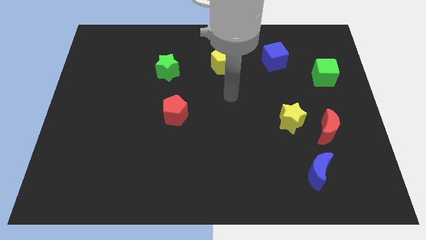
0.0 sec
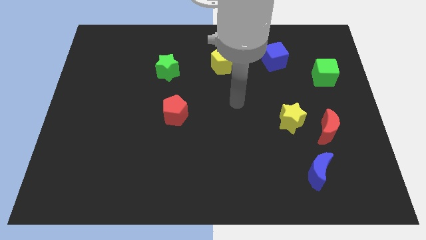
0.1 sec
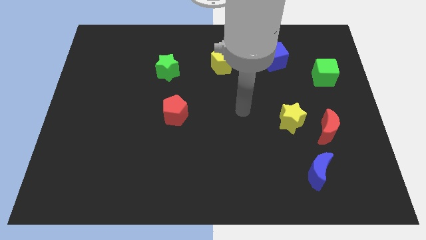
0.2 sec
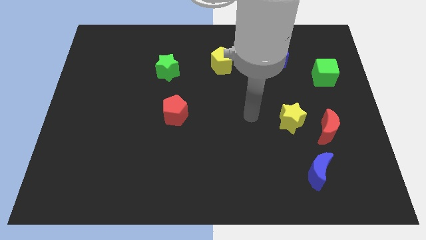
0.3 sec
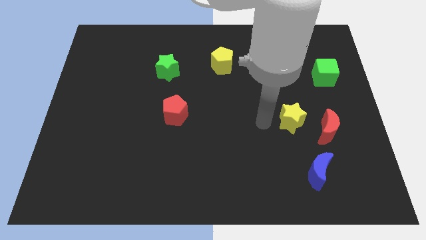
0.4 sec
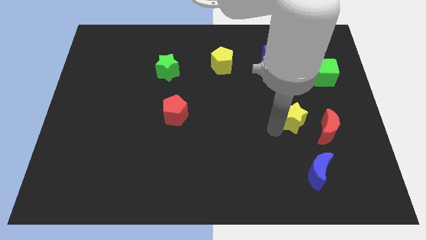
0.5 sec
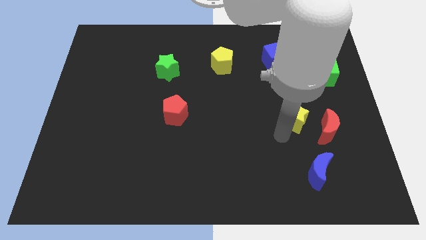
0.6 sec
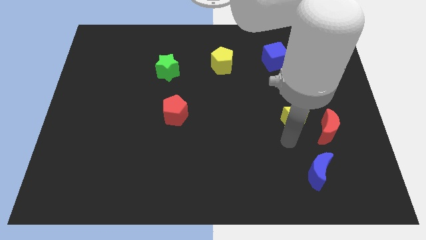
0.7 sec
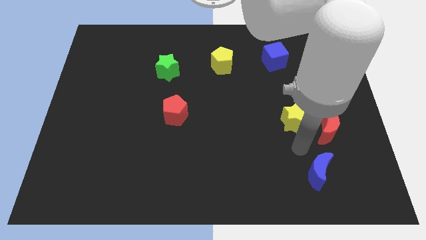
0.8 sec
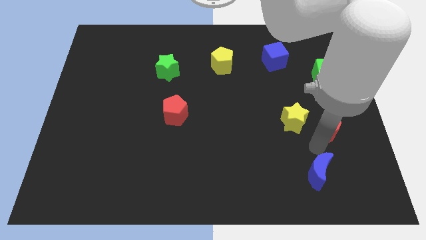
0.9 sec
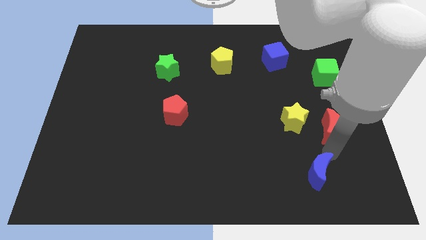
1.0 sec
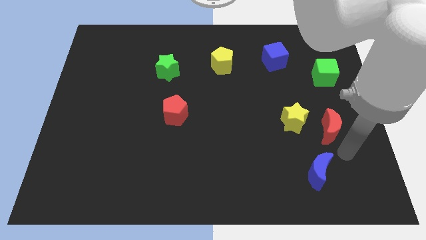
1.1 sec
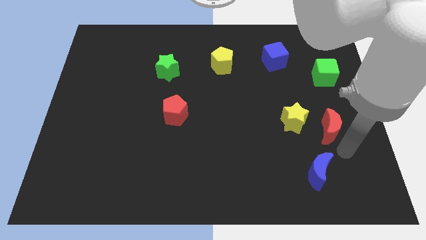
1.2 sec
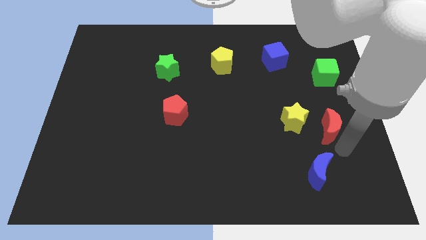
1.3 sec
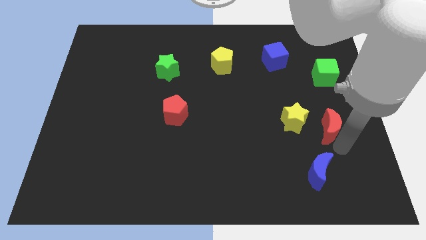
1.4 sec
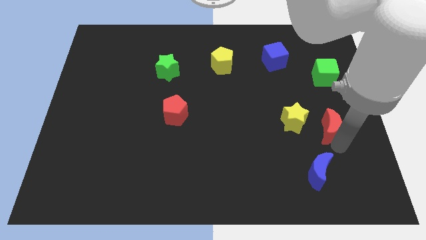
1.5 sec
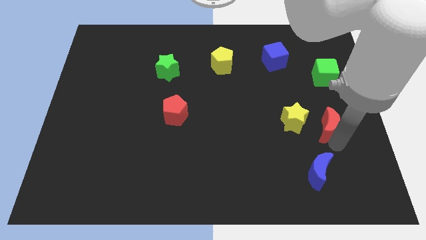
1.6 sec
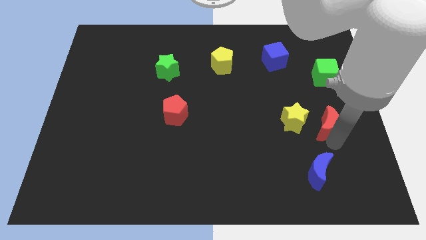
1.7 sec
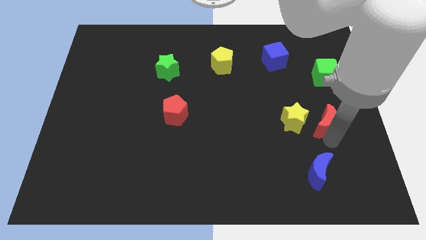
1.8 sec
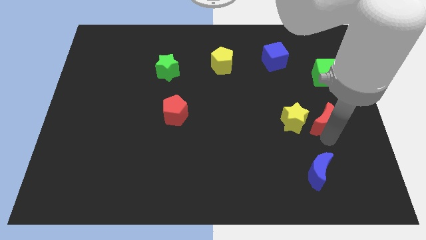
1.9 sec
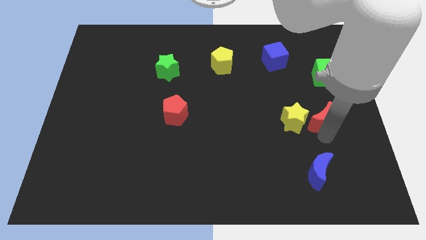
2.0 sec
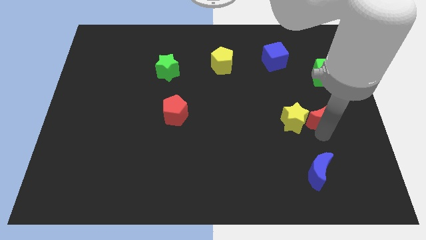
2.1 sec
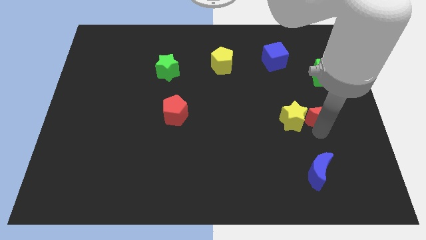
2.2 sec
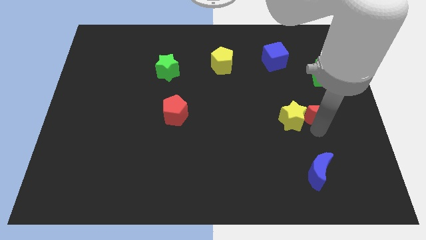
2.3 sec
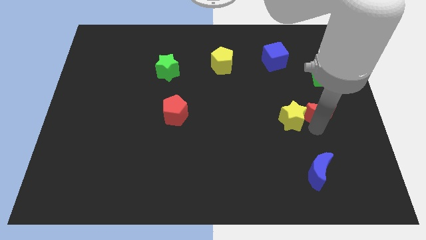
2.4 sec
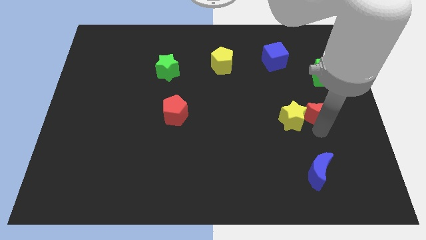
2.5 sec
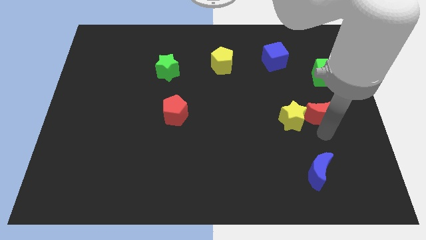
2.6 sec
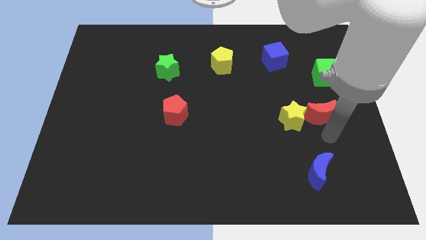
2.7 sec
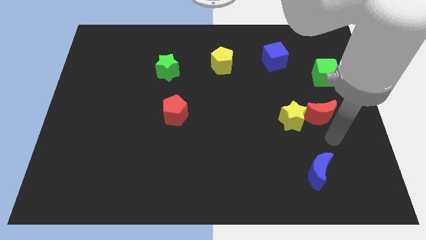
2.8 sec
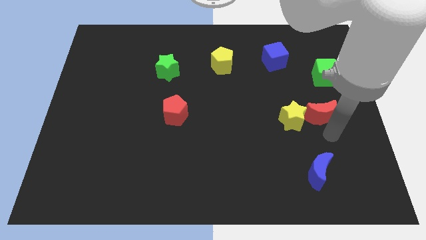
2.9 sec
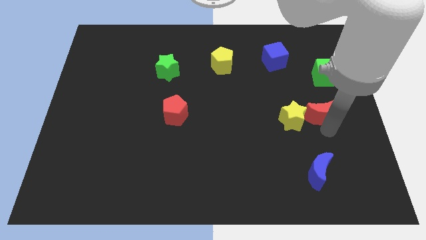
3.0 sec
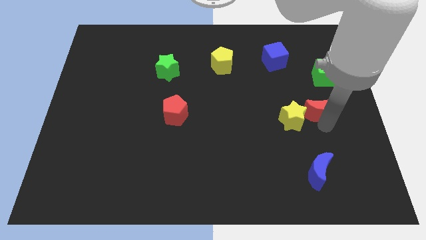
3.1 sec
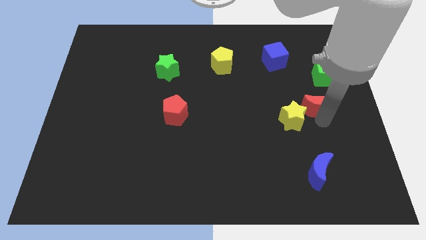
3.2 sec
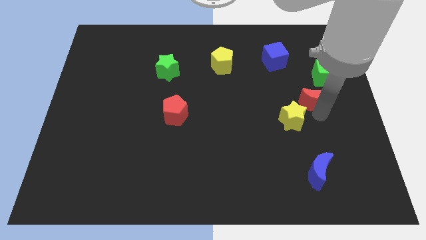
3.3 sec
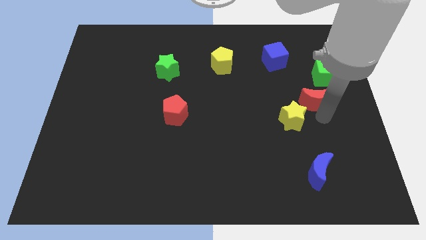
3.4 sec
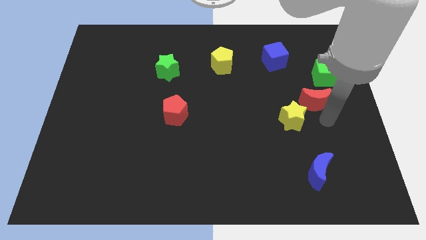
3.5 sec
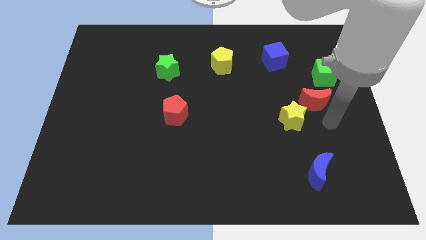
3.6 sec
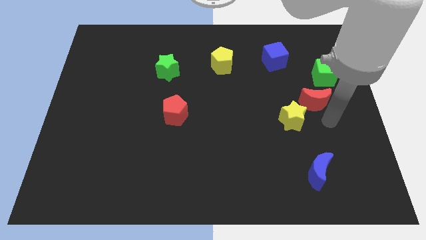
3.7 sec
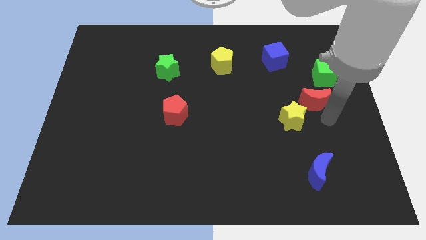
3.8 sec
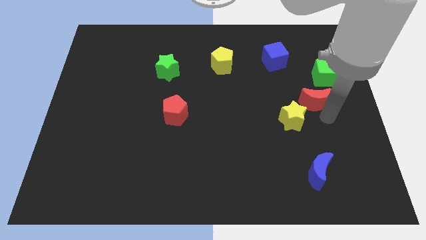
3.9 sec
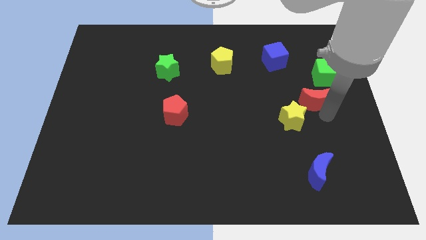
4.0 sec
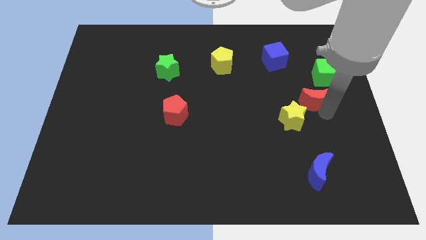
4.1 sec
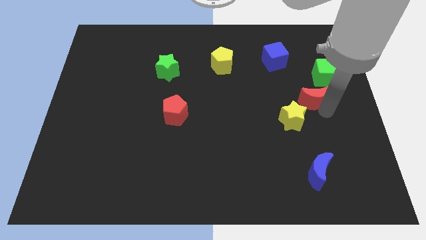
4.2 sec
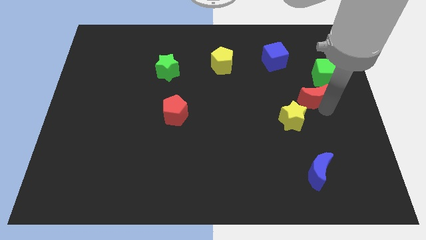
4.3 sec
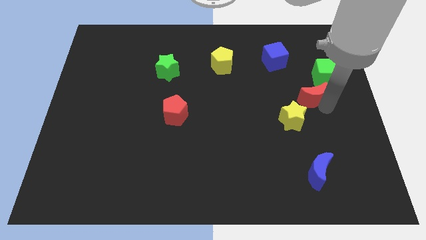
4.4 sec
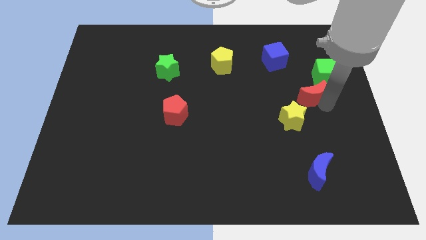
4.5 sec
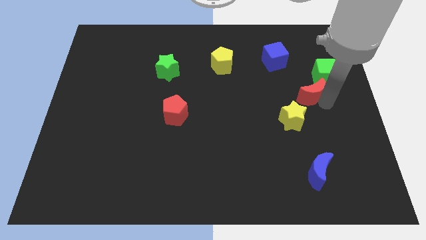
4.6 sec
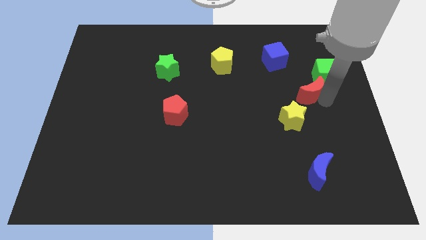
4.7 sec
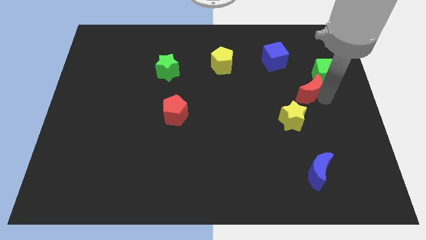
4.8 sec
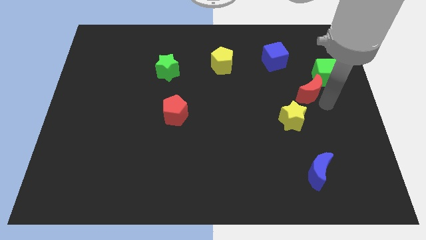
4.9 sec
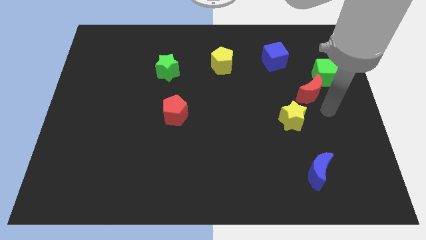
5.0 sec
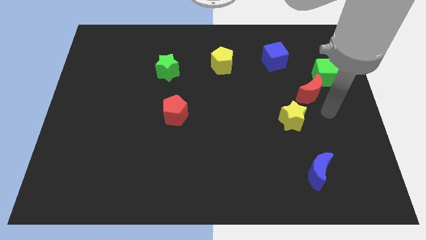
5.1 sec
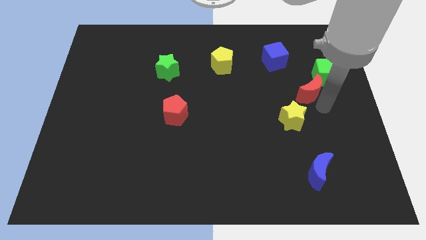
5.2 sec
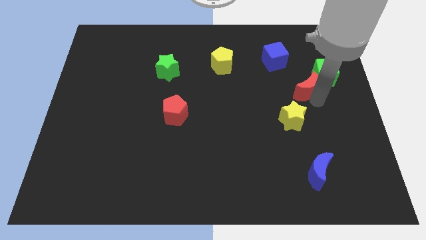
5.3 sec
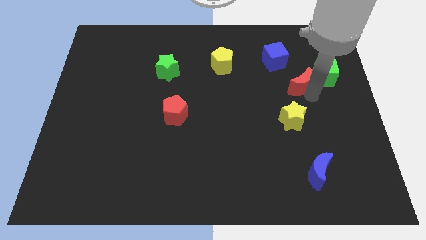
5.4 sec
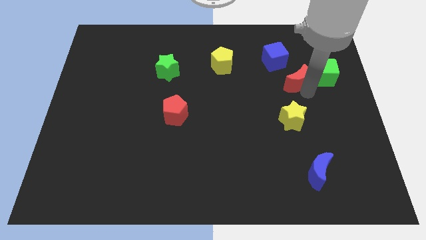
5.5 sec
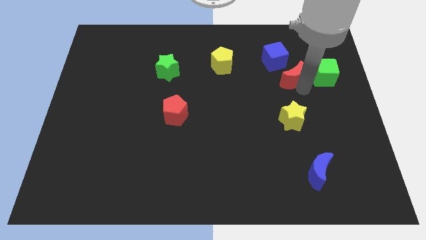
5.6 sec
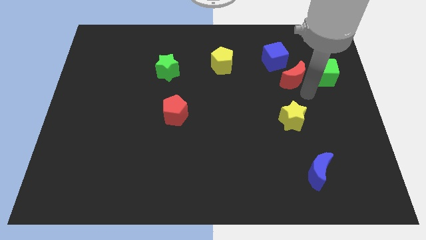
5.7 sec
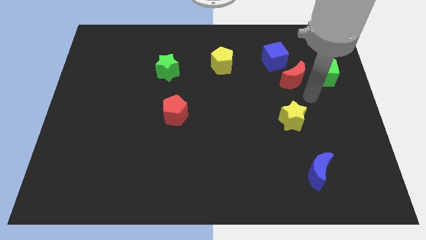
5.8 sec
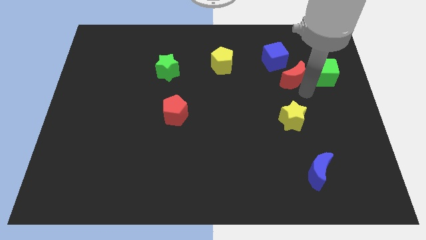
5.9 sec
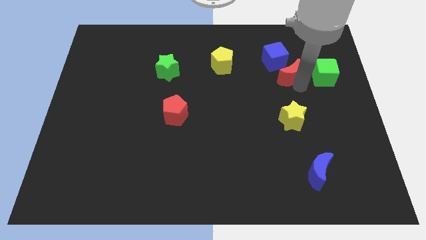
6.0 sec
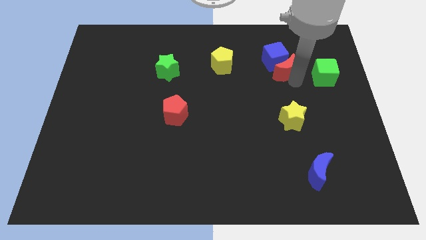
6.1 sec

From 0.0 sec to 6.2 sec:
put the red moon towards the blue cube

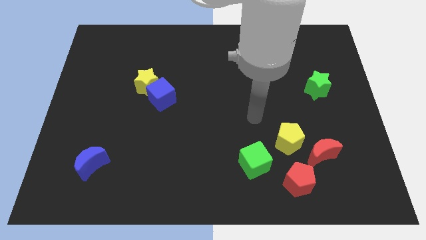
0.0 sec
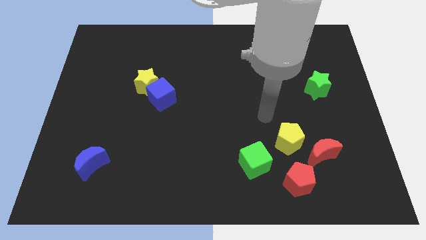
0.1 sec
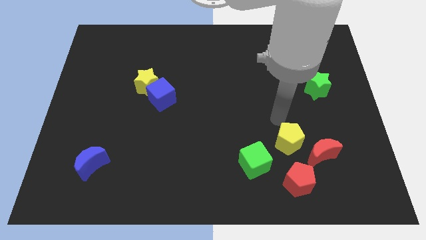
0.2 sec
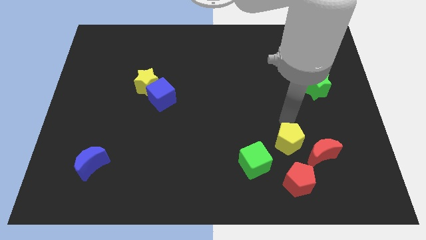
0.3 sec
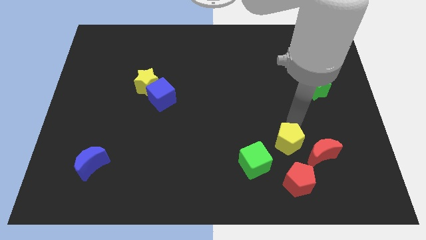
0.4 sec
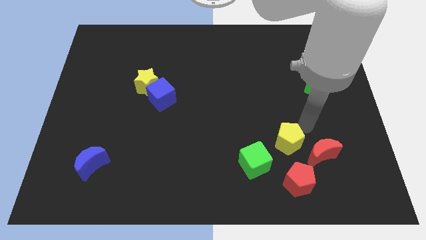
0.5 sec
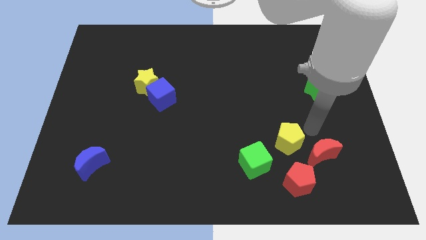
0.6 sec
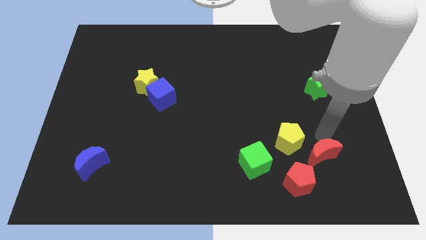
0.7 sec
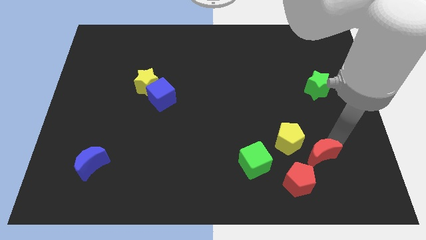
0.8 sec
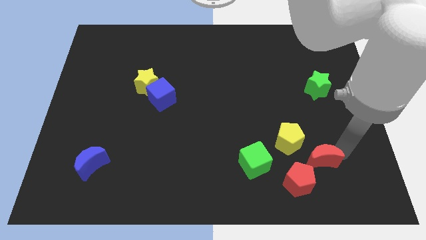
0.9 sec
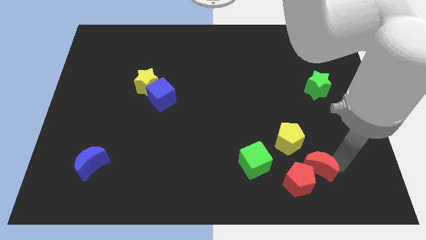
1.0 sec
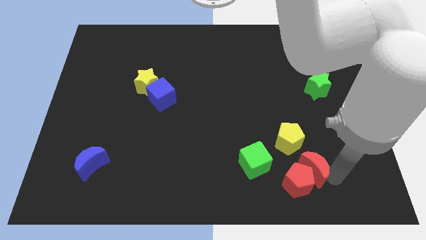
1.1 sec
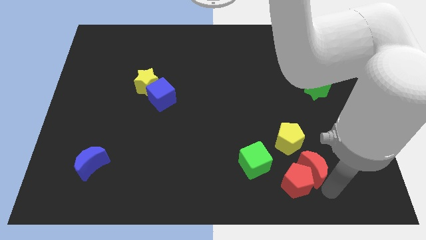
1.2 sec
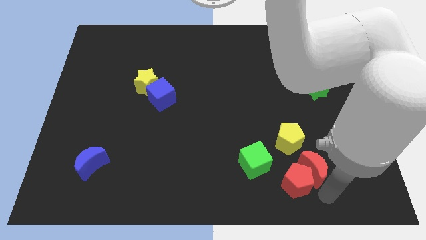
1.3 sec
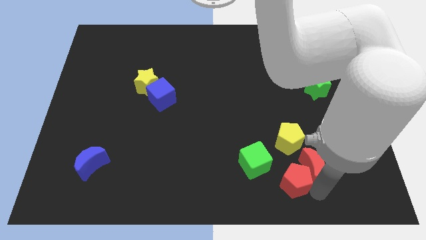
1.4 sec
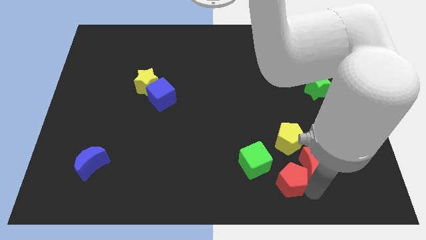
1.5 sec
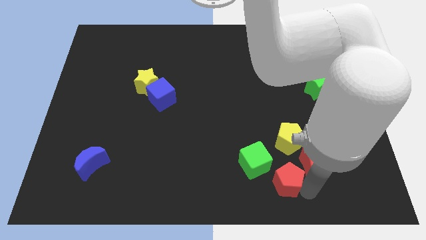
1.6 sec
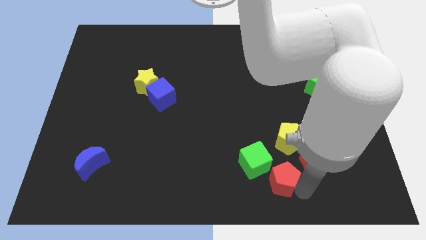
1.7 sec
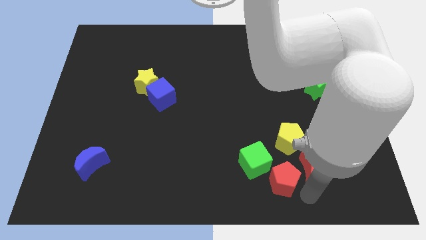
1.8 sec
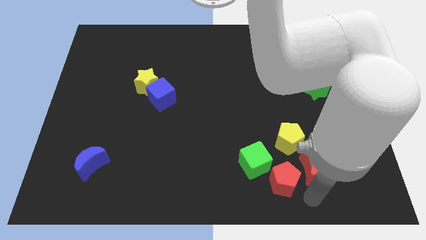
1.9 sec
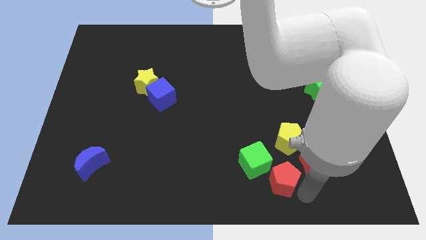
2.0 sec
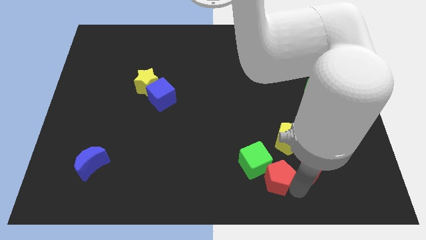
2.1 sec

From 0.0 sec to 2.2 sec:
push the red pentagon next to the green cube

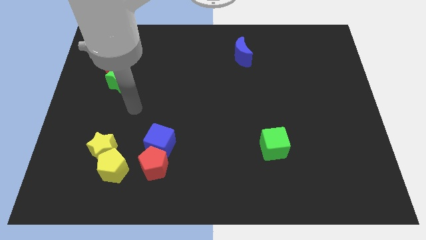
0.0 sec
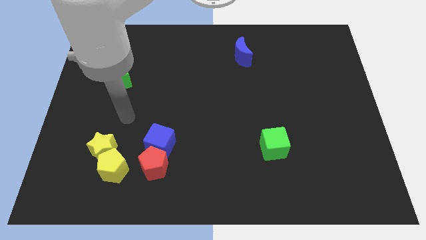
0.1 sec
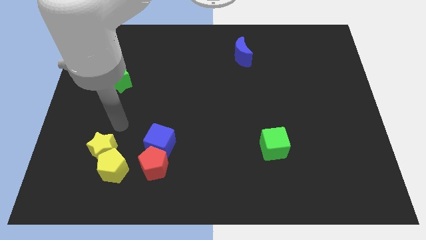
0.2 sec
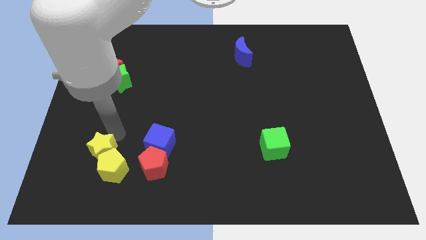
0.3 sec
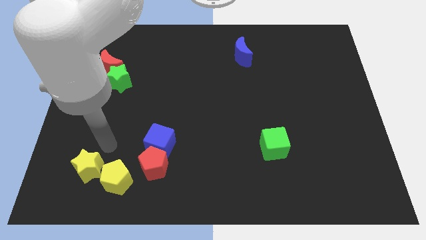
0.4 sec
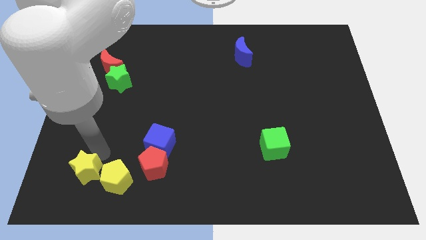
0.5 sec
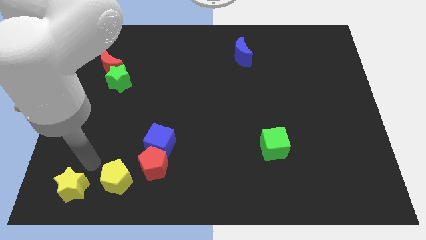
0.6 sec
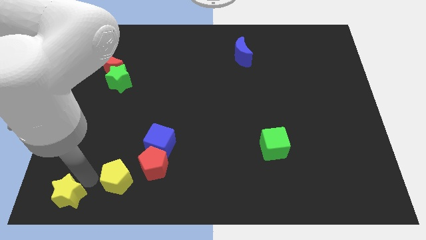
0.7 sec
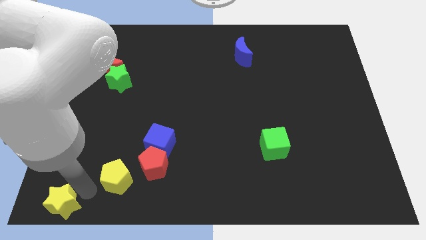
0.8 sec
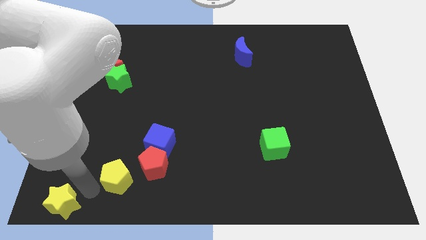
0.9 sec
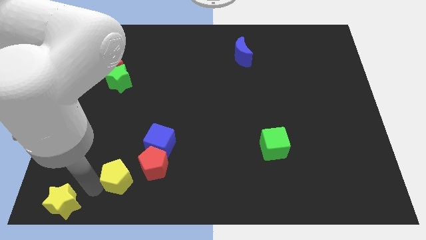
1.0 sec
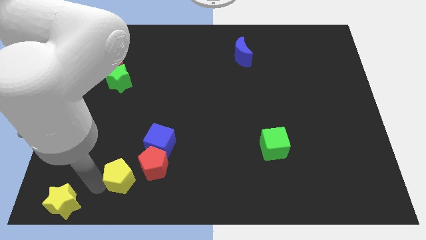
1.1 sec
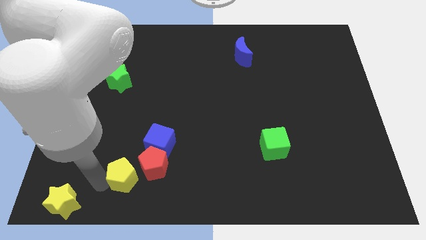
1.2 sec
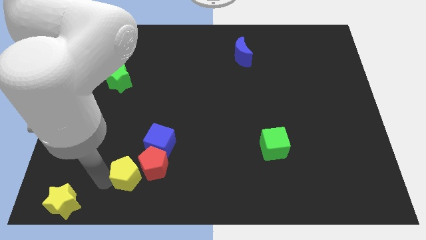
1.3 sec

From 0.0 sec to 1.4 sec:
put the yellow pentagon close to the red pentagon
